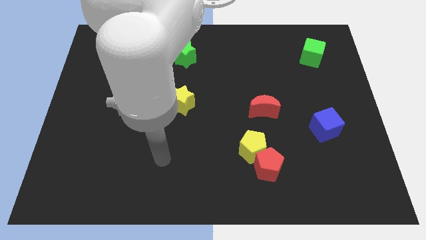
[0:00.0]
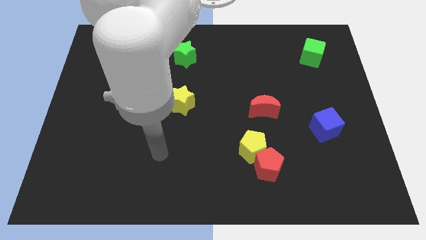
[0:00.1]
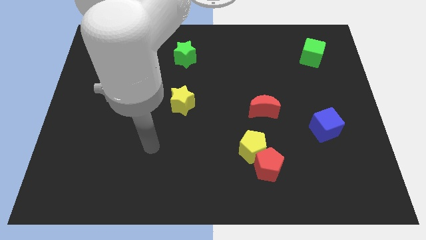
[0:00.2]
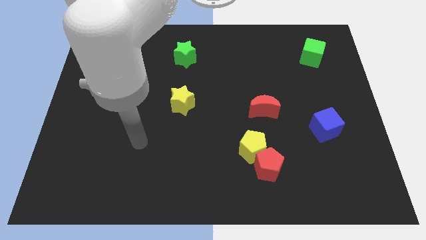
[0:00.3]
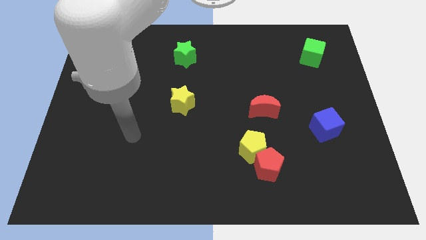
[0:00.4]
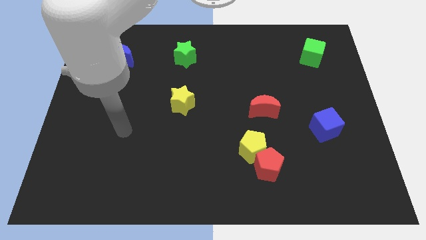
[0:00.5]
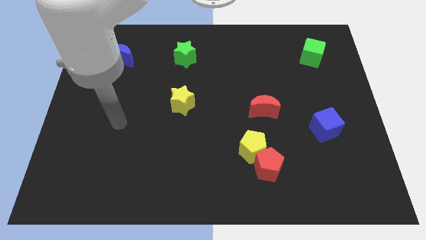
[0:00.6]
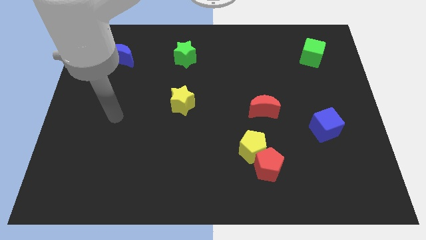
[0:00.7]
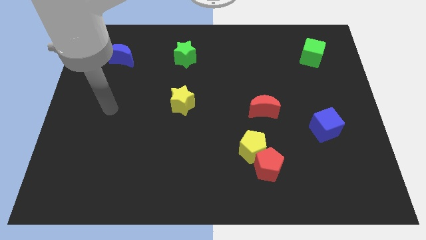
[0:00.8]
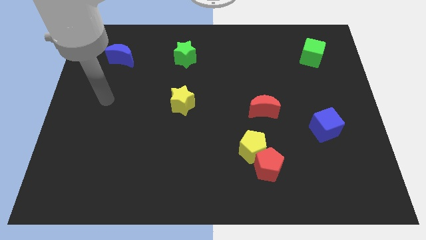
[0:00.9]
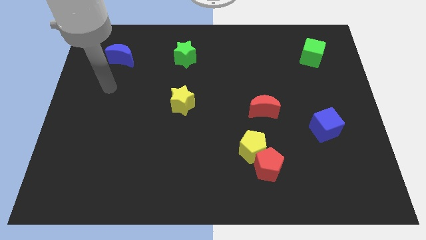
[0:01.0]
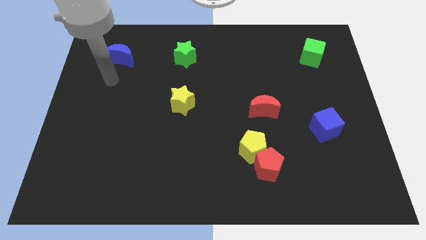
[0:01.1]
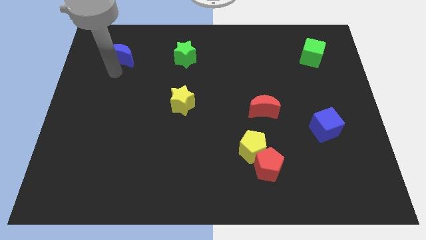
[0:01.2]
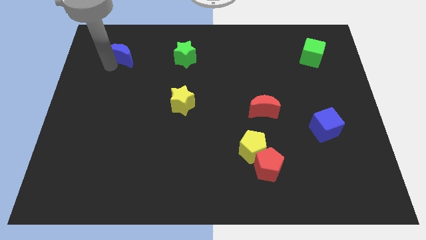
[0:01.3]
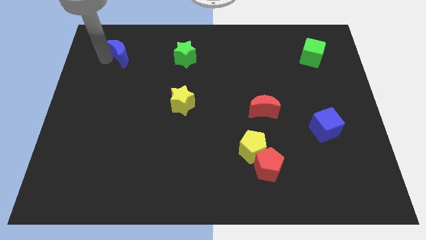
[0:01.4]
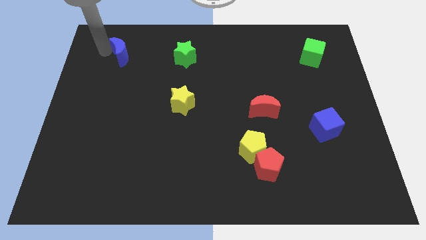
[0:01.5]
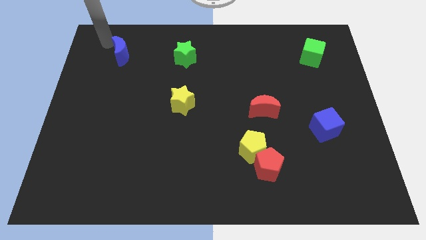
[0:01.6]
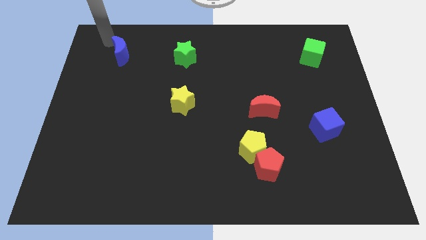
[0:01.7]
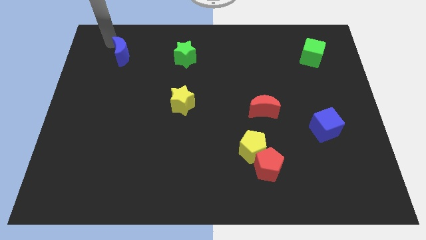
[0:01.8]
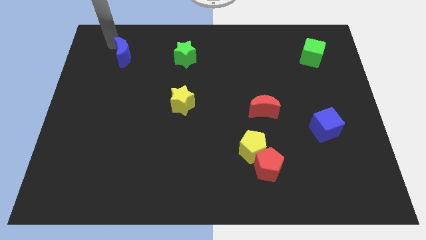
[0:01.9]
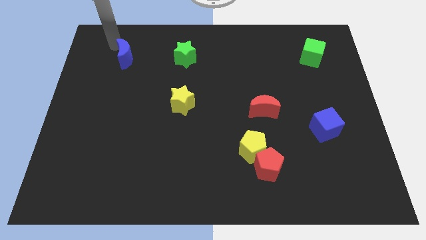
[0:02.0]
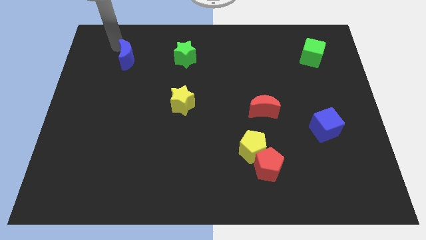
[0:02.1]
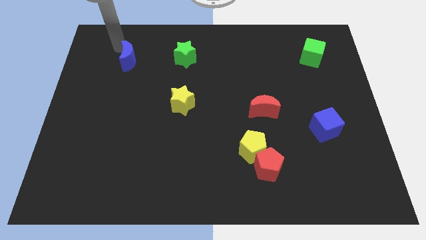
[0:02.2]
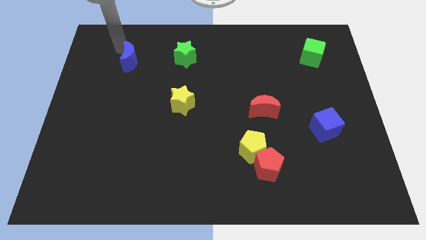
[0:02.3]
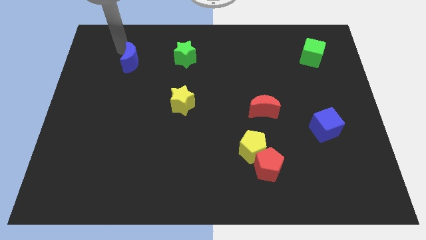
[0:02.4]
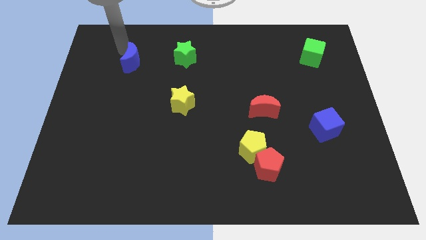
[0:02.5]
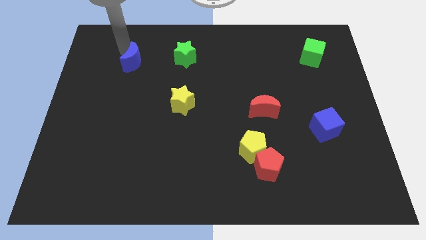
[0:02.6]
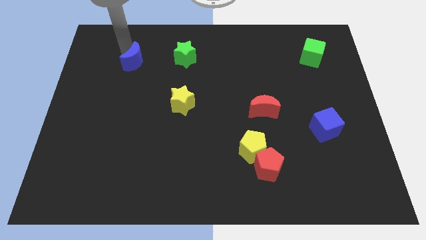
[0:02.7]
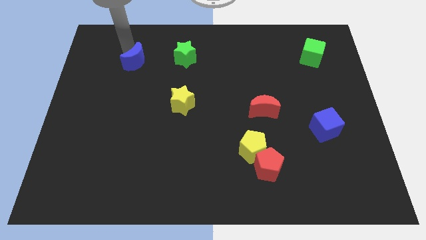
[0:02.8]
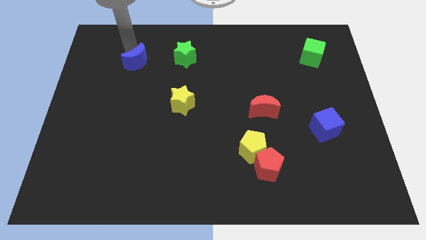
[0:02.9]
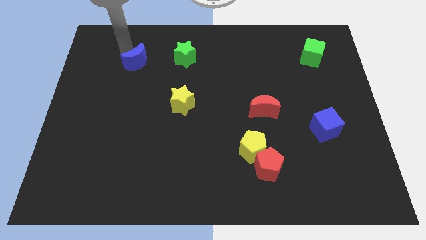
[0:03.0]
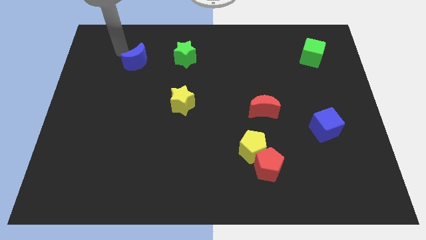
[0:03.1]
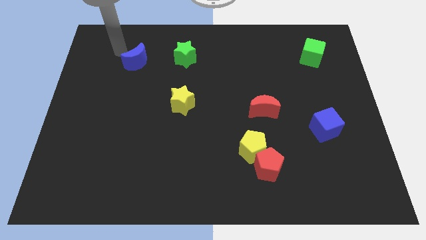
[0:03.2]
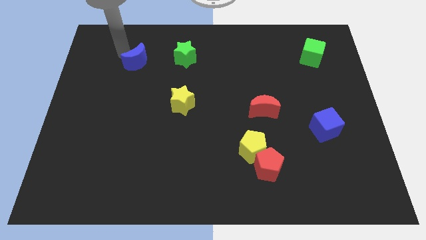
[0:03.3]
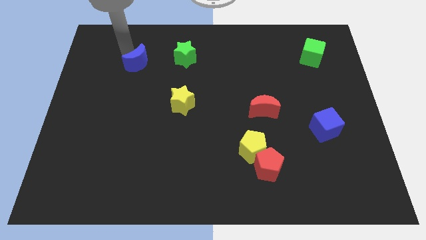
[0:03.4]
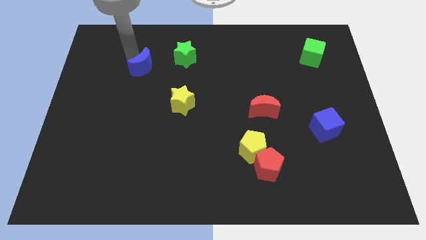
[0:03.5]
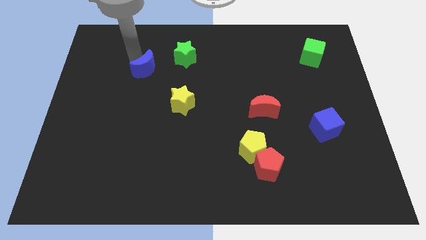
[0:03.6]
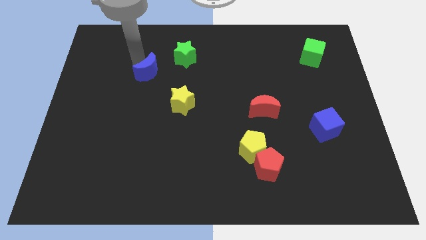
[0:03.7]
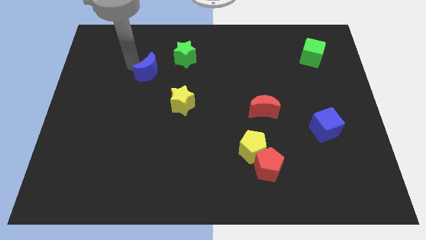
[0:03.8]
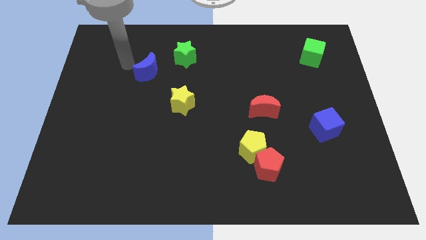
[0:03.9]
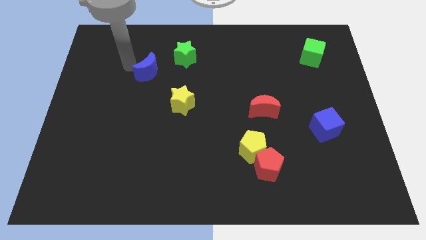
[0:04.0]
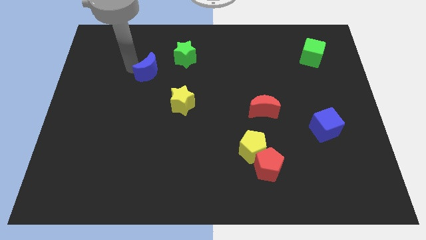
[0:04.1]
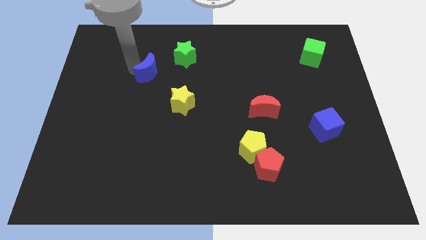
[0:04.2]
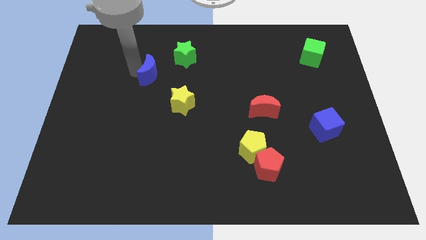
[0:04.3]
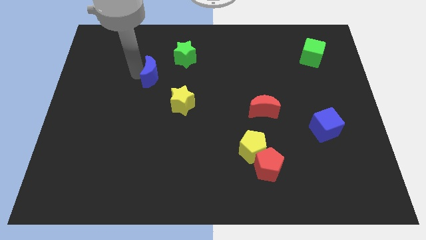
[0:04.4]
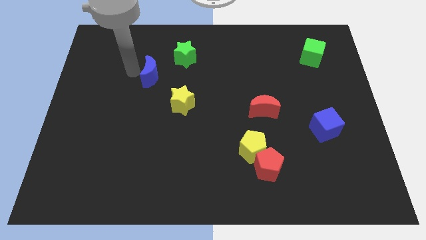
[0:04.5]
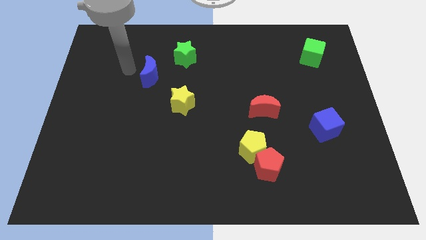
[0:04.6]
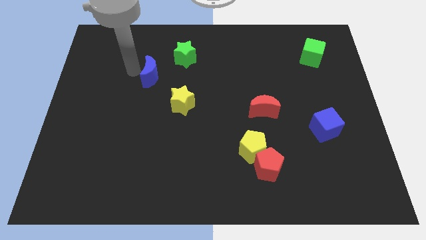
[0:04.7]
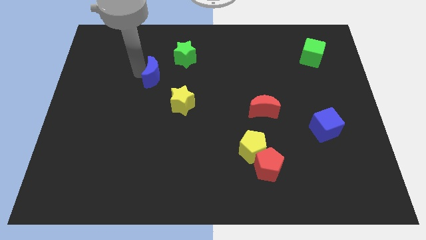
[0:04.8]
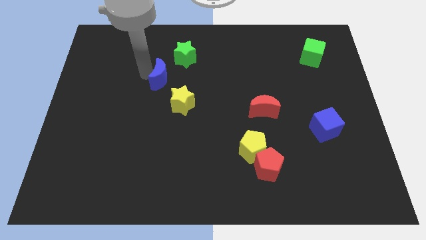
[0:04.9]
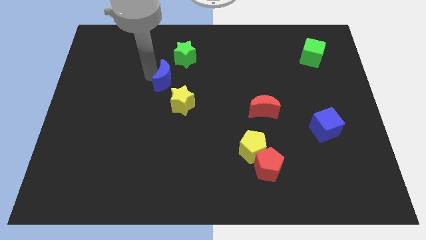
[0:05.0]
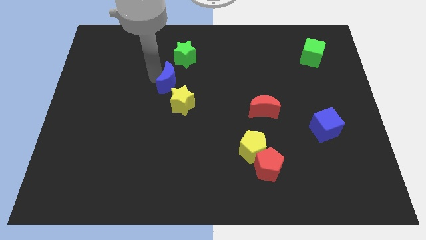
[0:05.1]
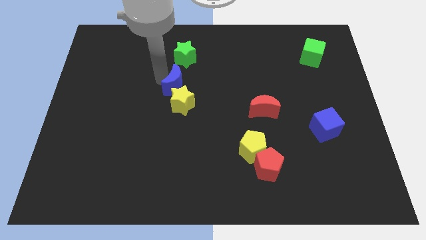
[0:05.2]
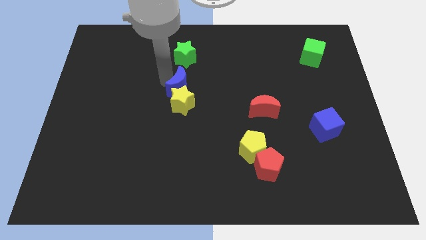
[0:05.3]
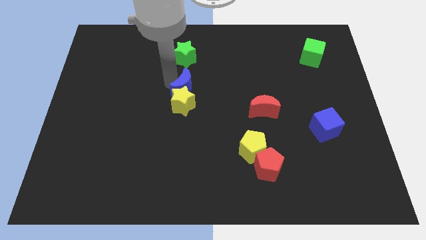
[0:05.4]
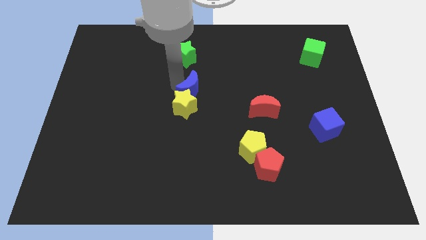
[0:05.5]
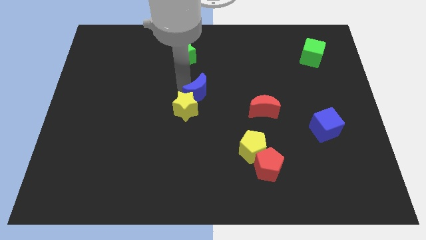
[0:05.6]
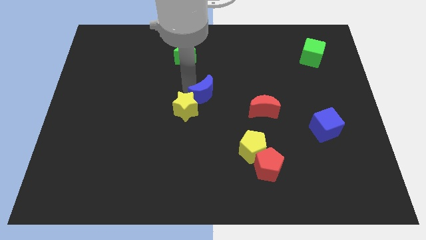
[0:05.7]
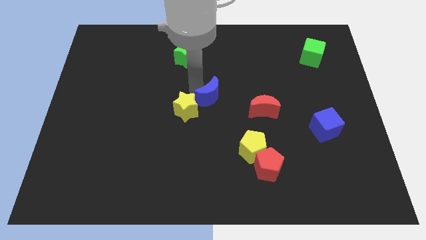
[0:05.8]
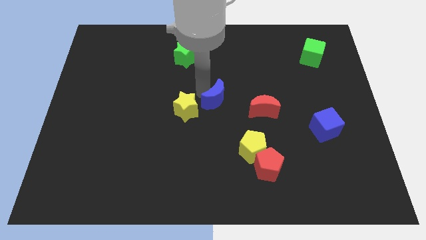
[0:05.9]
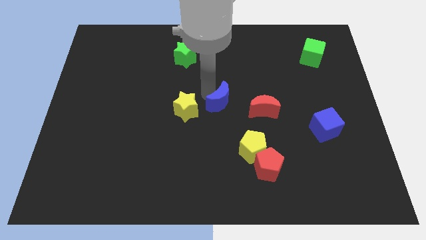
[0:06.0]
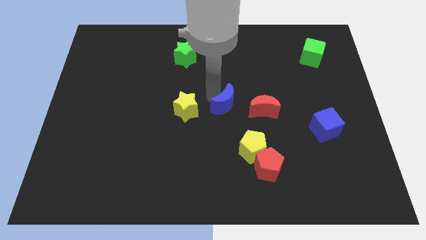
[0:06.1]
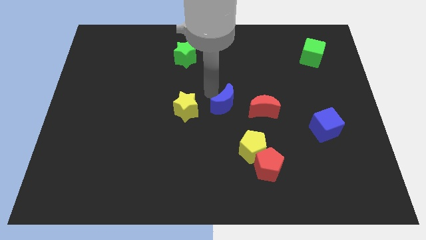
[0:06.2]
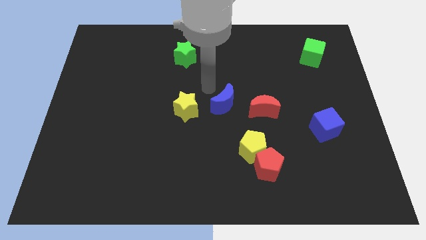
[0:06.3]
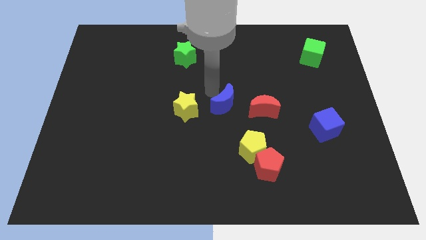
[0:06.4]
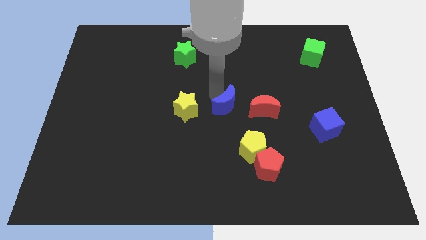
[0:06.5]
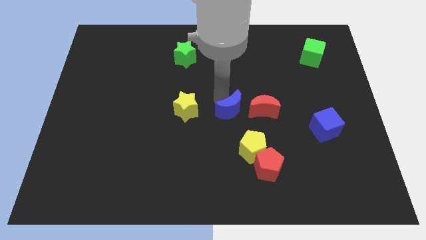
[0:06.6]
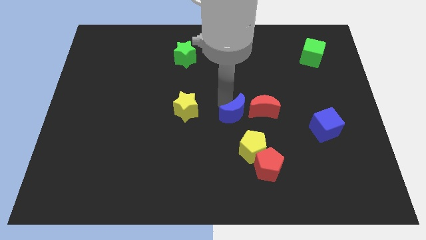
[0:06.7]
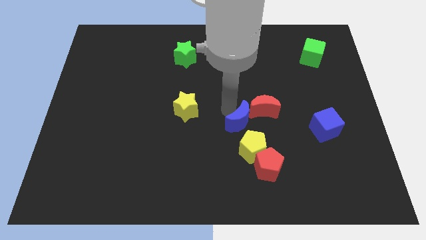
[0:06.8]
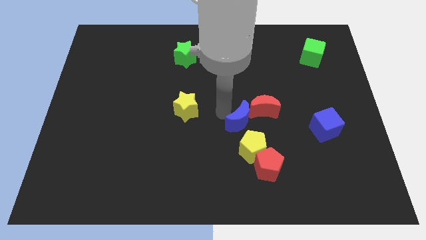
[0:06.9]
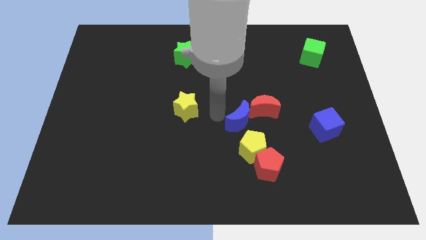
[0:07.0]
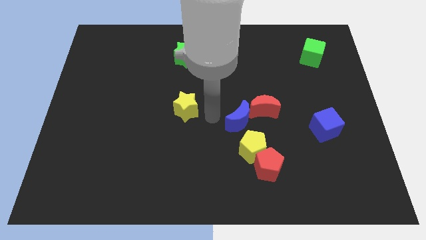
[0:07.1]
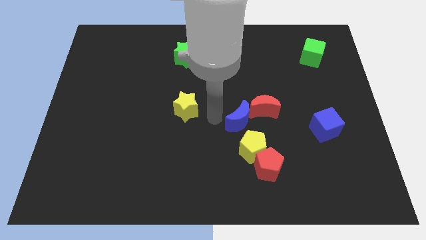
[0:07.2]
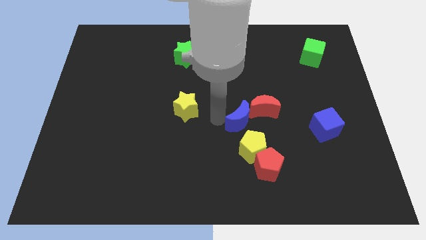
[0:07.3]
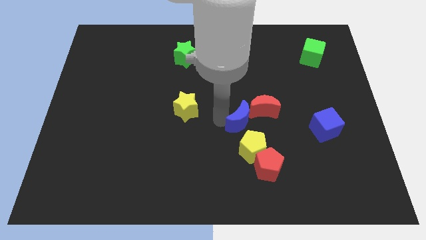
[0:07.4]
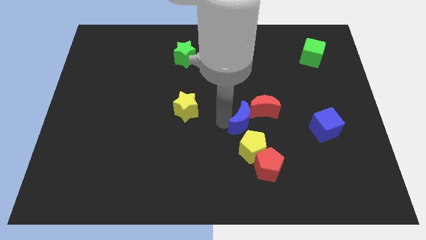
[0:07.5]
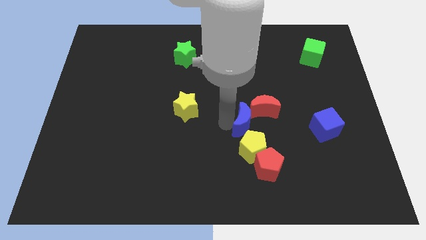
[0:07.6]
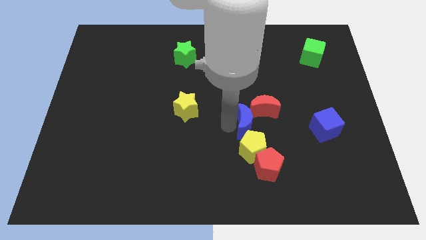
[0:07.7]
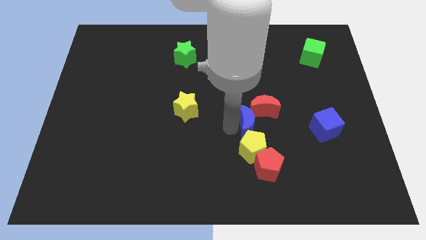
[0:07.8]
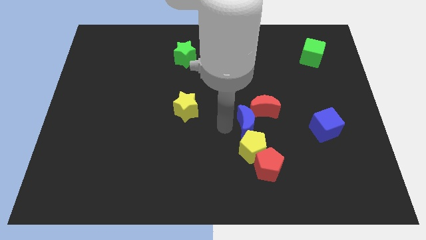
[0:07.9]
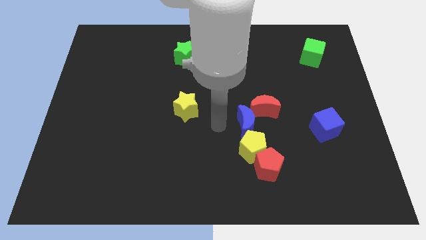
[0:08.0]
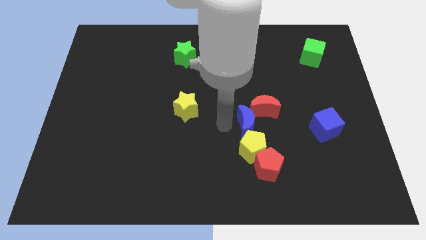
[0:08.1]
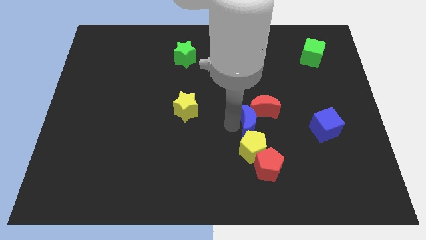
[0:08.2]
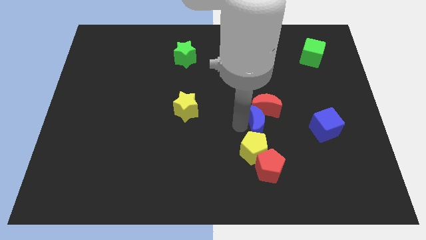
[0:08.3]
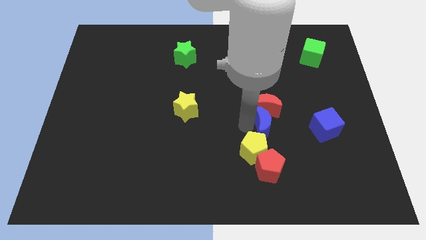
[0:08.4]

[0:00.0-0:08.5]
put the blue moon diagonally down and to the right of the red moon
